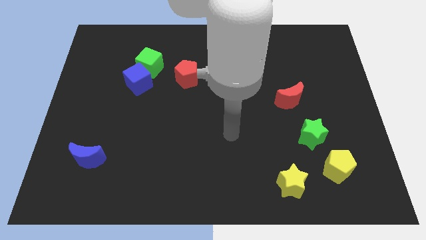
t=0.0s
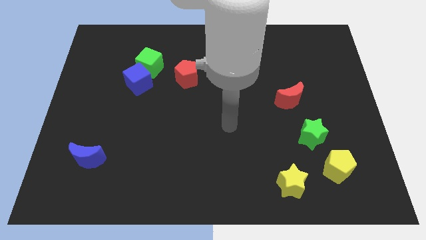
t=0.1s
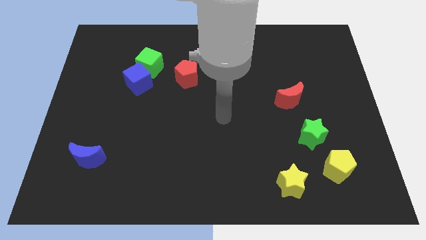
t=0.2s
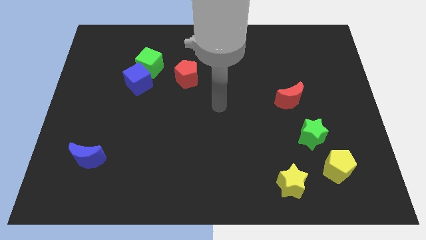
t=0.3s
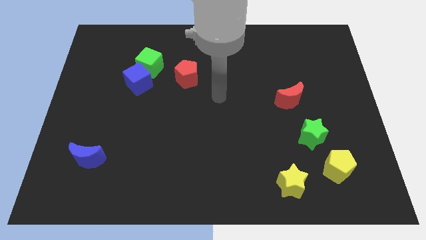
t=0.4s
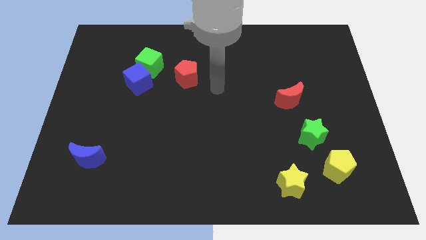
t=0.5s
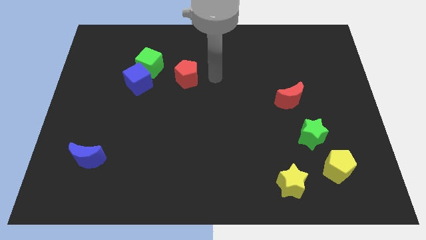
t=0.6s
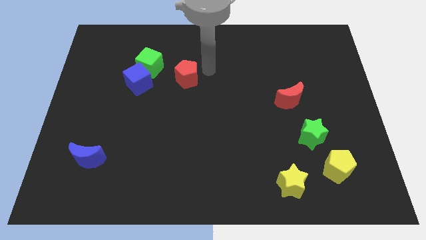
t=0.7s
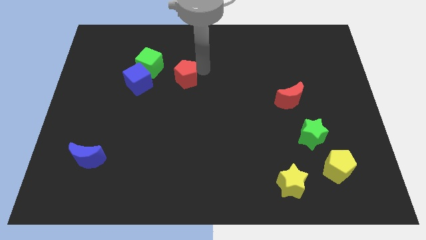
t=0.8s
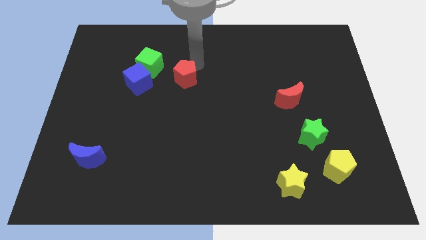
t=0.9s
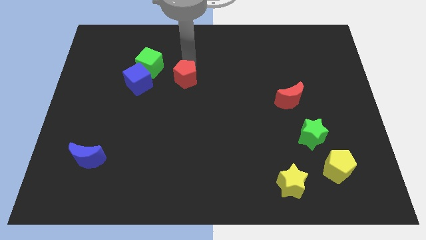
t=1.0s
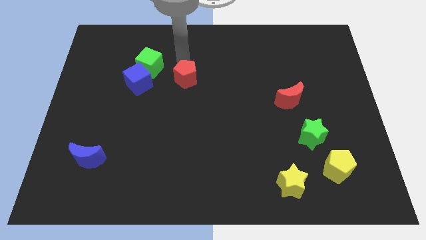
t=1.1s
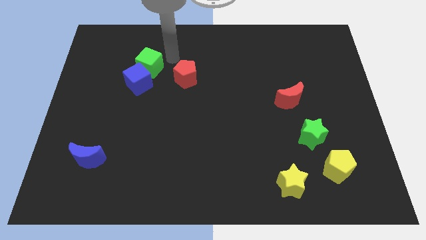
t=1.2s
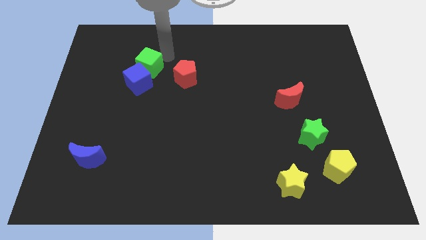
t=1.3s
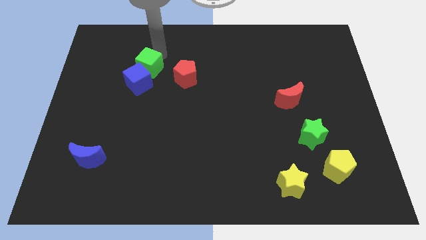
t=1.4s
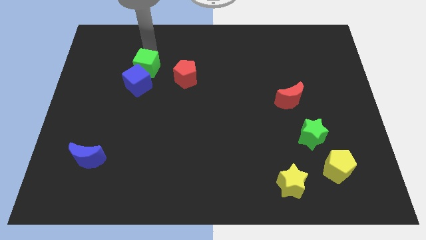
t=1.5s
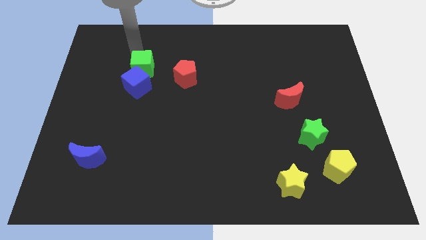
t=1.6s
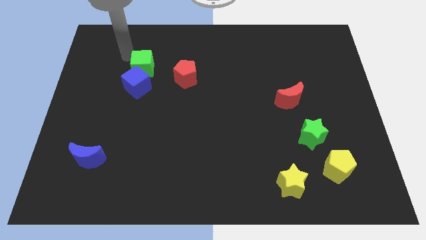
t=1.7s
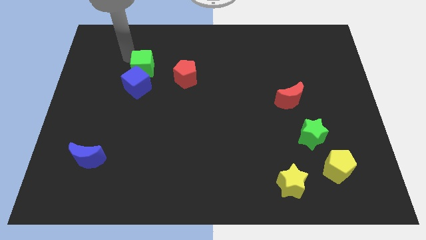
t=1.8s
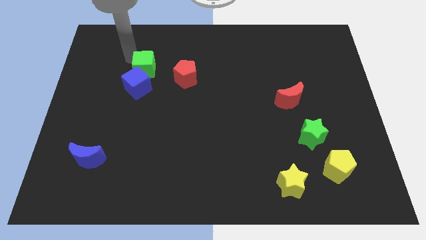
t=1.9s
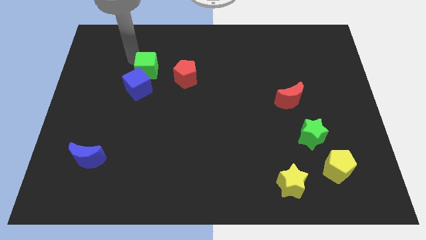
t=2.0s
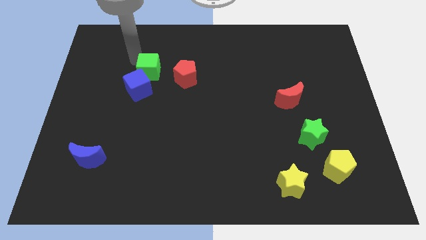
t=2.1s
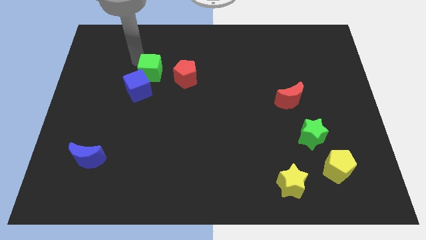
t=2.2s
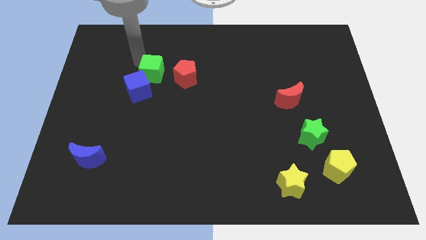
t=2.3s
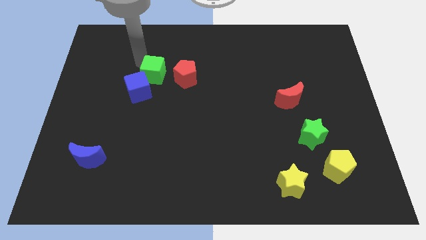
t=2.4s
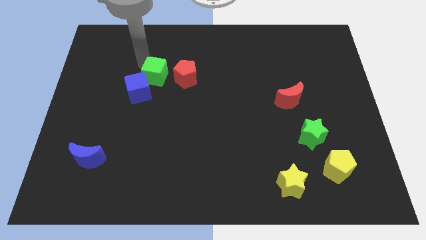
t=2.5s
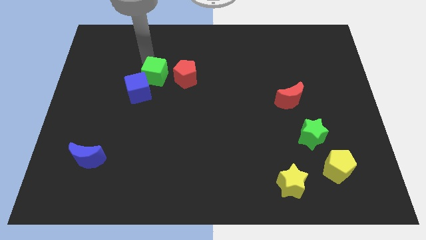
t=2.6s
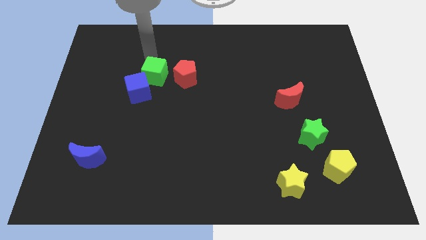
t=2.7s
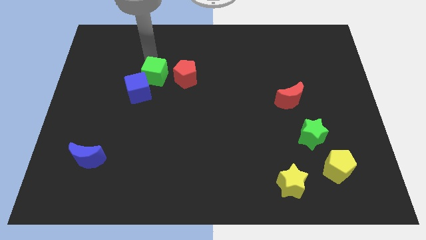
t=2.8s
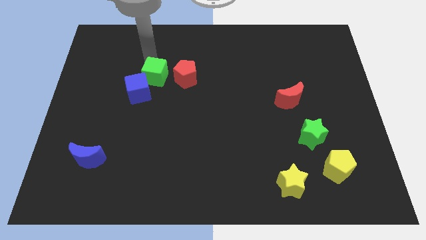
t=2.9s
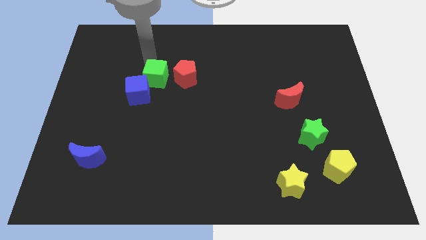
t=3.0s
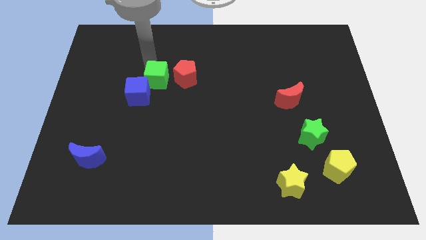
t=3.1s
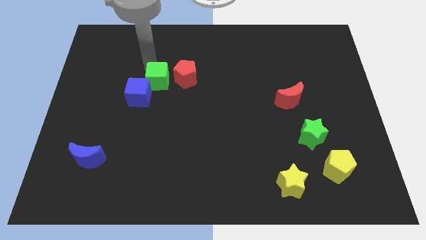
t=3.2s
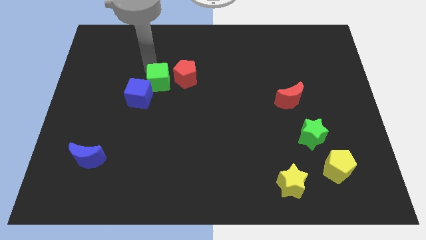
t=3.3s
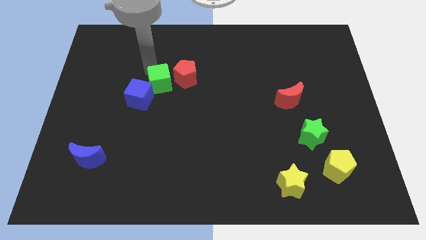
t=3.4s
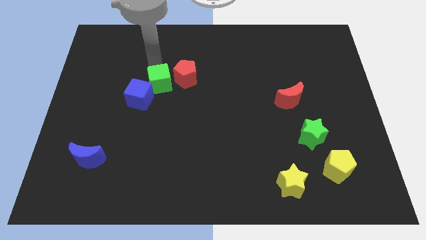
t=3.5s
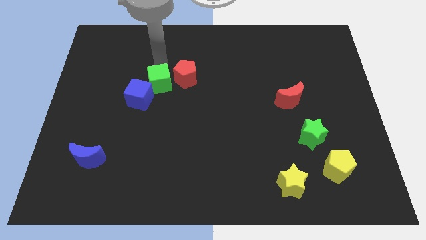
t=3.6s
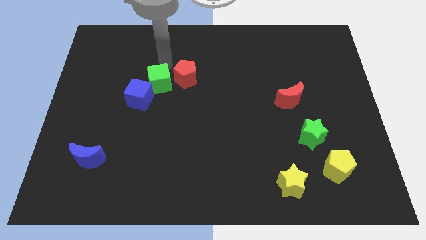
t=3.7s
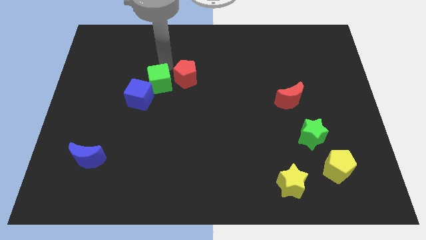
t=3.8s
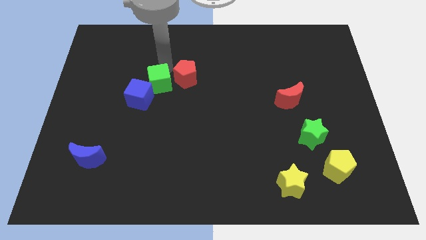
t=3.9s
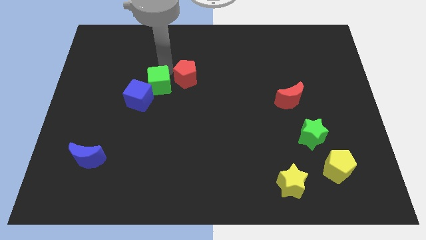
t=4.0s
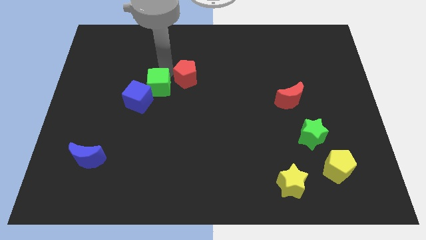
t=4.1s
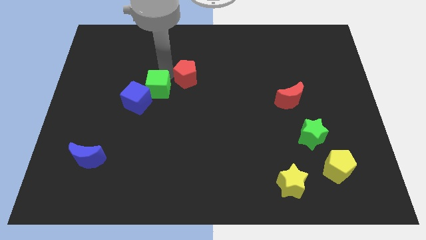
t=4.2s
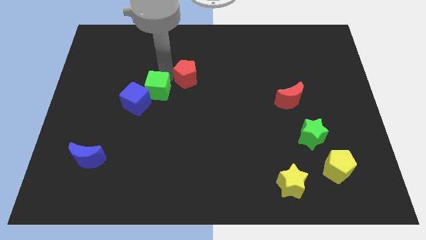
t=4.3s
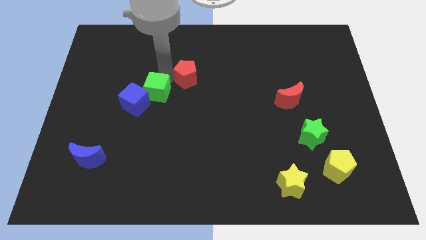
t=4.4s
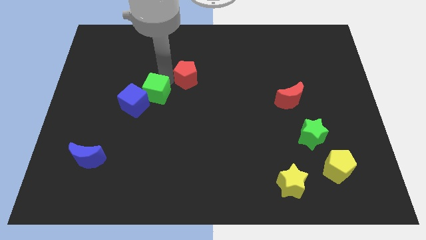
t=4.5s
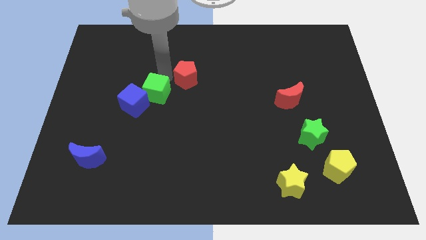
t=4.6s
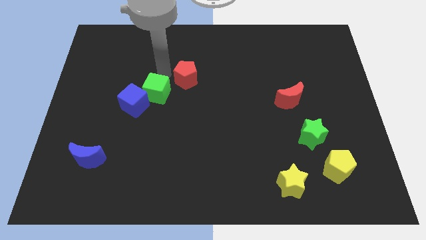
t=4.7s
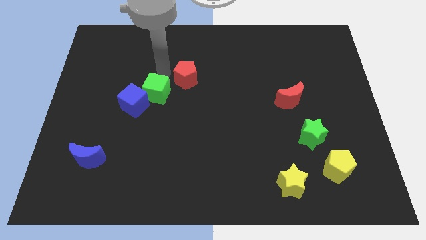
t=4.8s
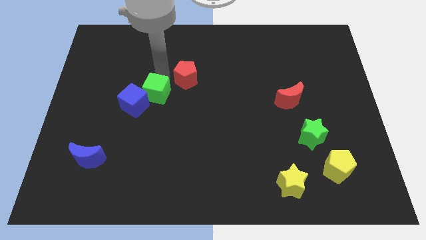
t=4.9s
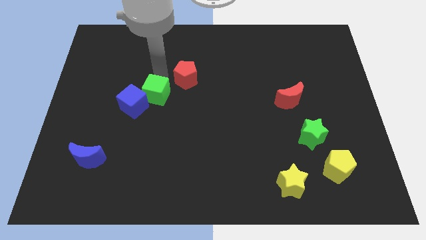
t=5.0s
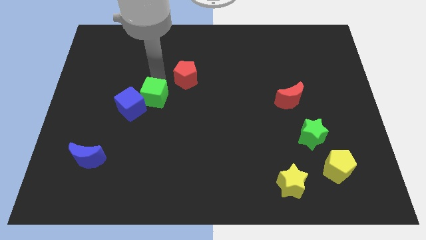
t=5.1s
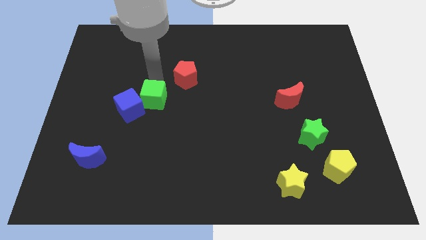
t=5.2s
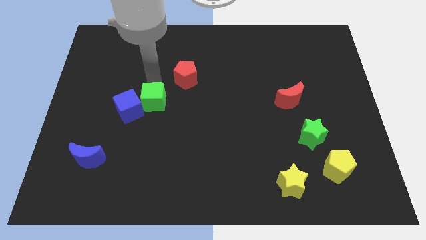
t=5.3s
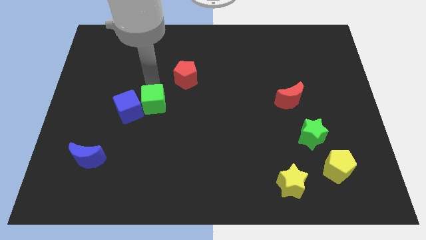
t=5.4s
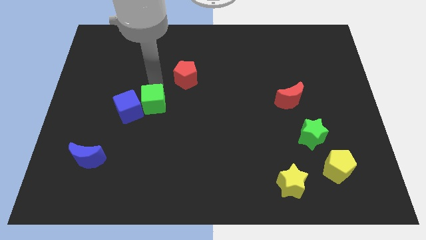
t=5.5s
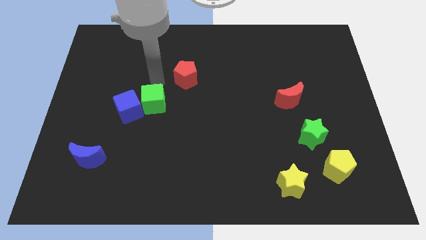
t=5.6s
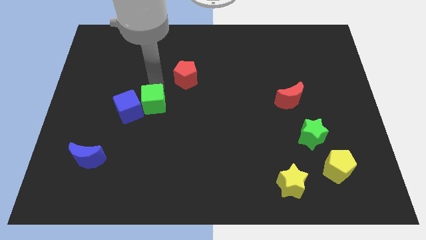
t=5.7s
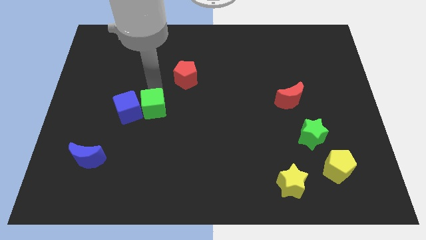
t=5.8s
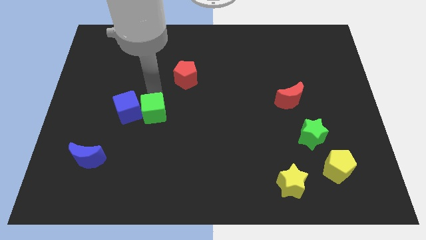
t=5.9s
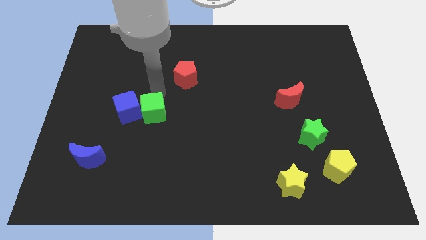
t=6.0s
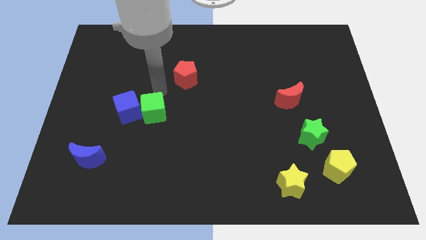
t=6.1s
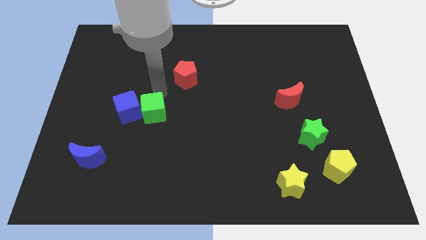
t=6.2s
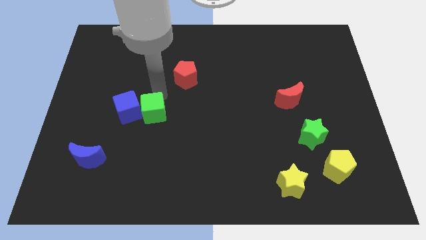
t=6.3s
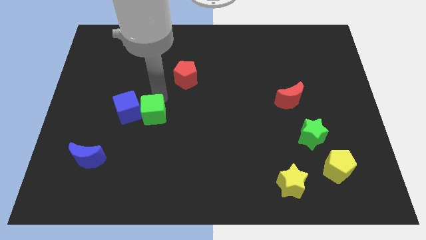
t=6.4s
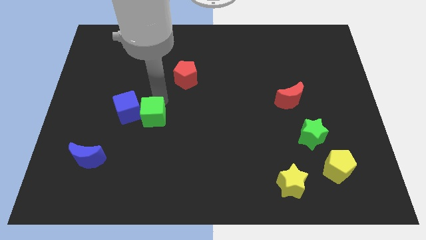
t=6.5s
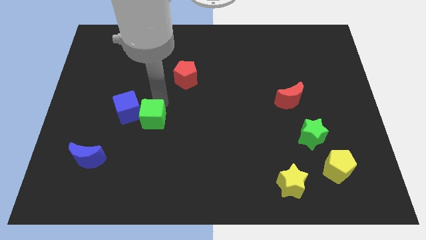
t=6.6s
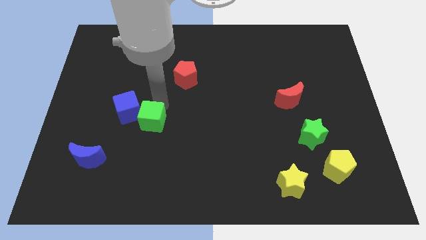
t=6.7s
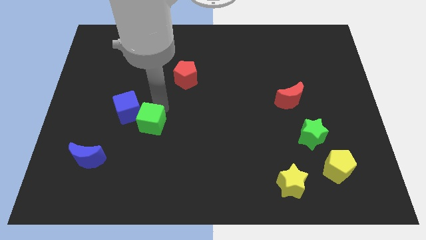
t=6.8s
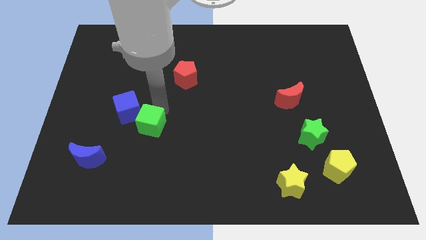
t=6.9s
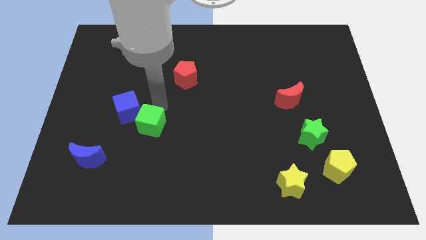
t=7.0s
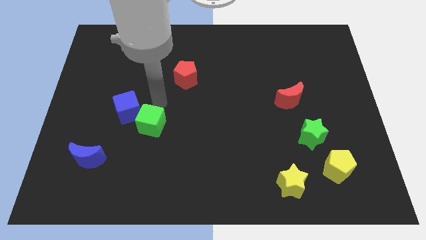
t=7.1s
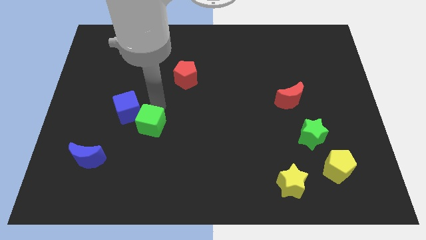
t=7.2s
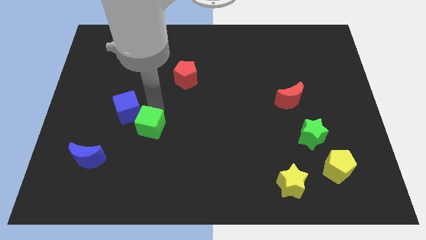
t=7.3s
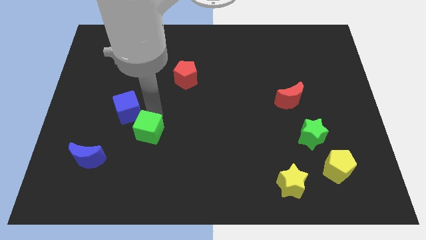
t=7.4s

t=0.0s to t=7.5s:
slide the green cube down

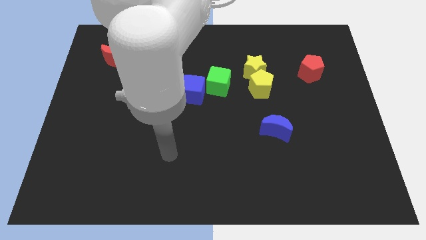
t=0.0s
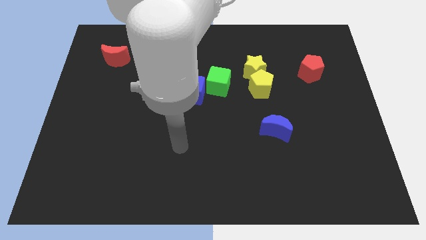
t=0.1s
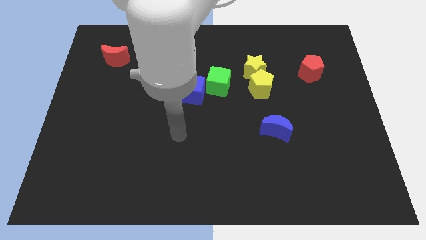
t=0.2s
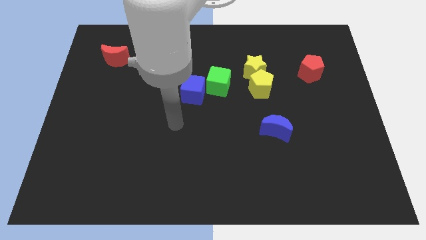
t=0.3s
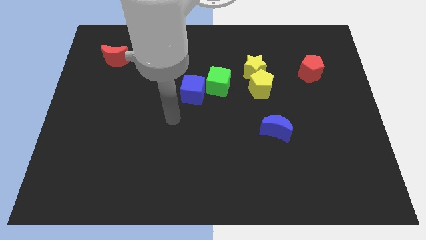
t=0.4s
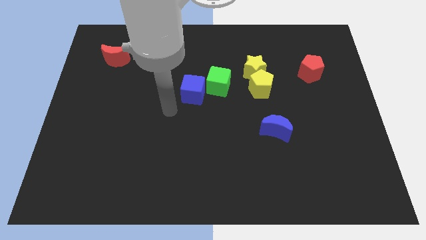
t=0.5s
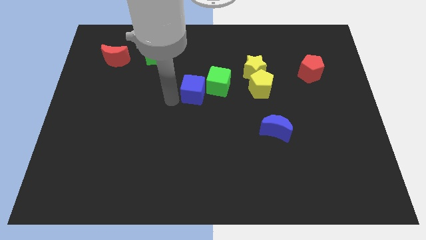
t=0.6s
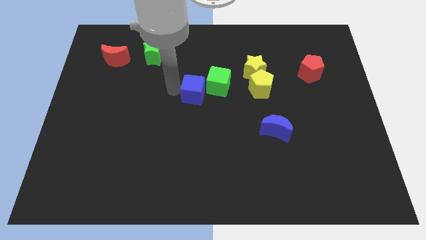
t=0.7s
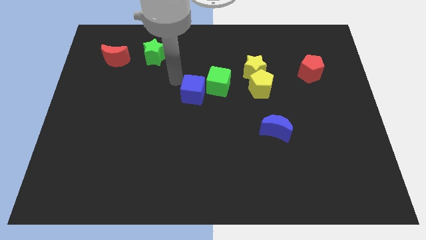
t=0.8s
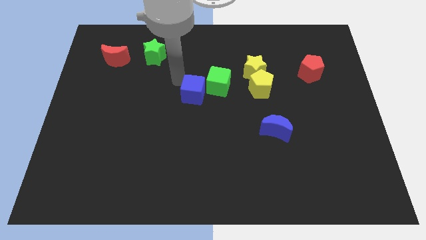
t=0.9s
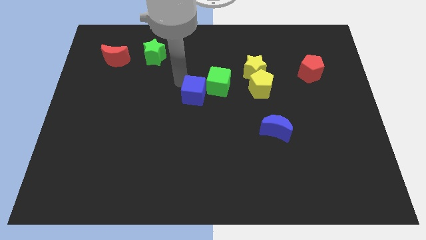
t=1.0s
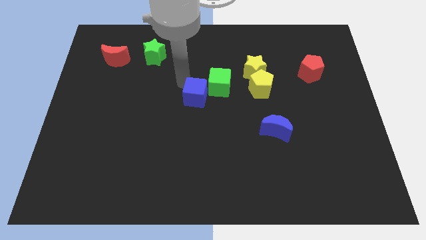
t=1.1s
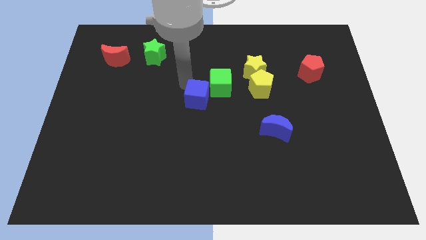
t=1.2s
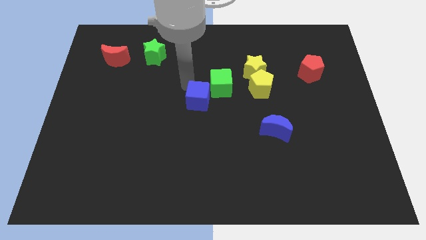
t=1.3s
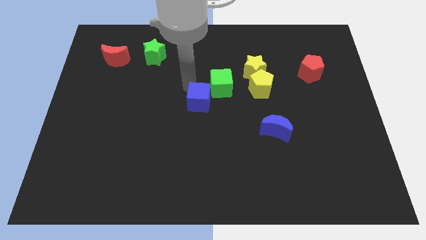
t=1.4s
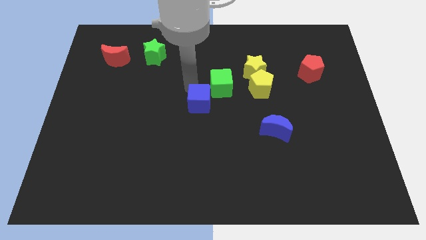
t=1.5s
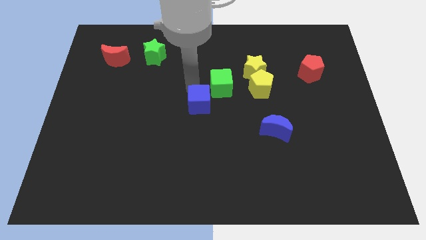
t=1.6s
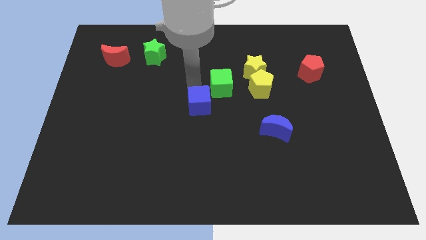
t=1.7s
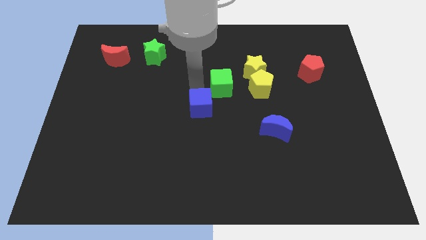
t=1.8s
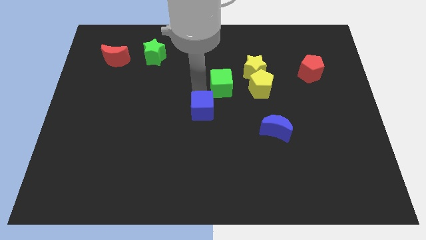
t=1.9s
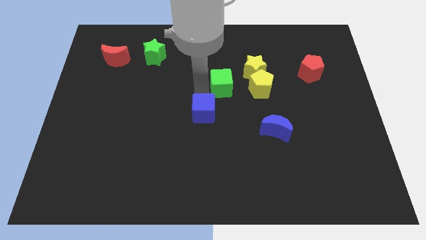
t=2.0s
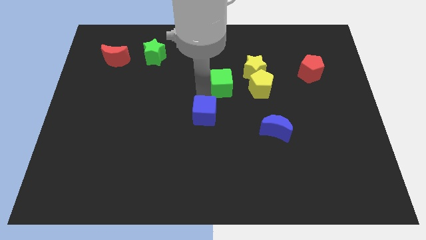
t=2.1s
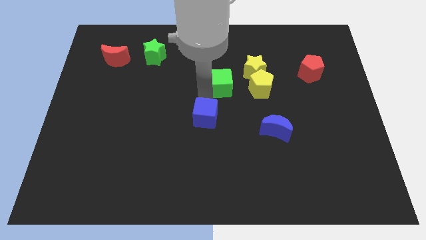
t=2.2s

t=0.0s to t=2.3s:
push the blue cube downwards and to the right a bit
